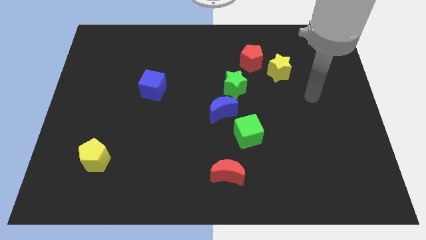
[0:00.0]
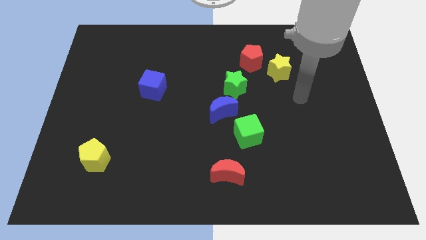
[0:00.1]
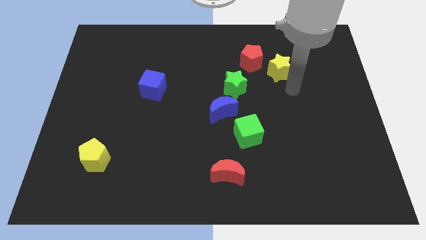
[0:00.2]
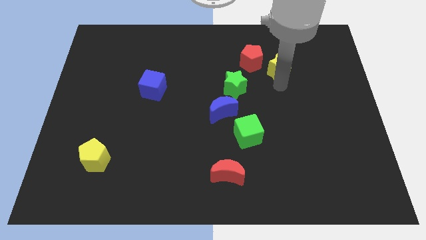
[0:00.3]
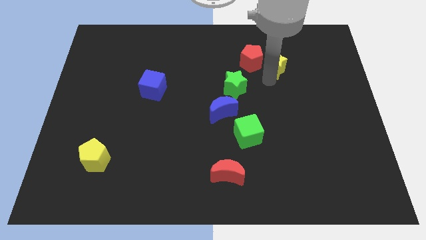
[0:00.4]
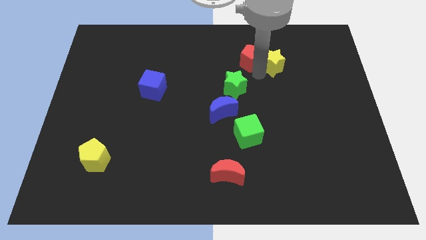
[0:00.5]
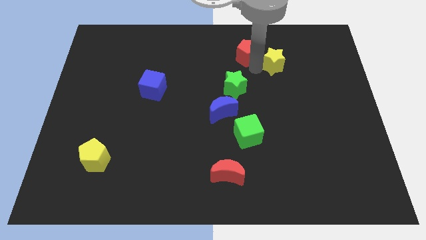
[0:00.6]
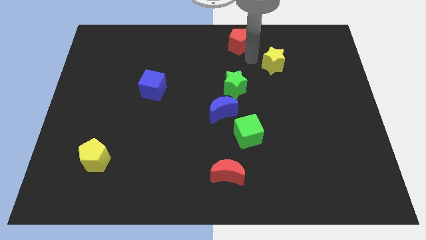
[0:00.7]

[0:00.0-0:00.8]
move the yellow star away from the red pentagon

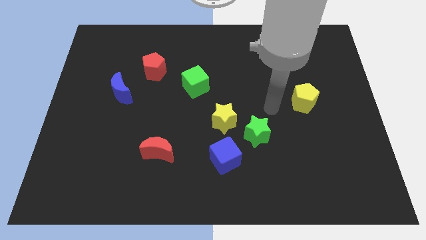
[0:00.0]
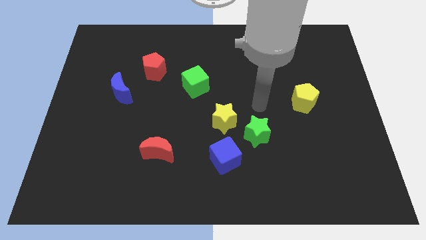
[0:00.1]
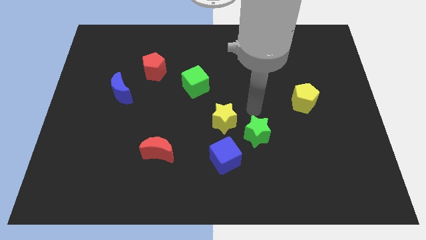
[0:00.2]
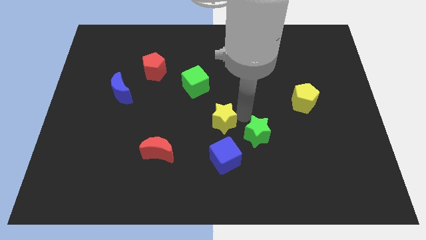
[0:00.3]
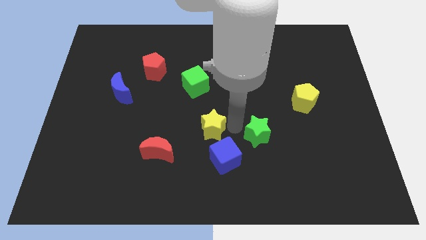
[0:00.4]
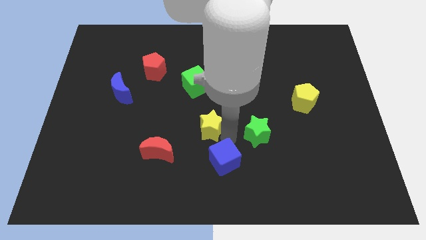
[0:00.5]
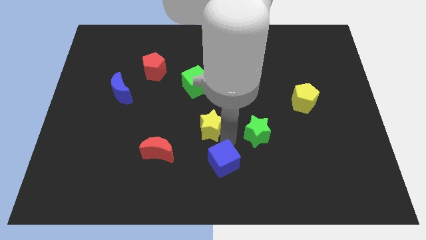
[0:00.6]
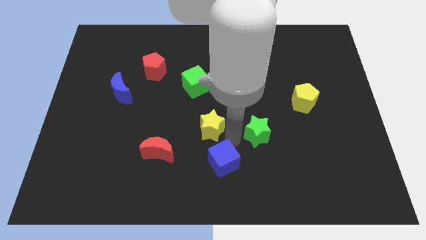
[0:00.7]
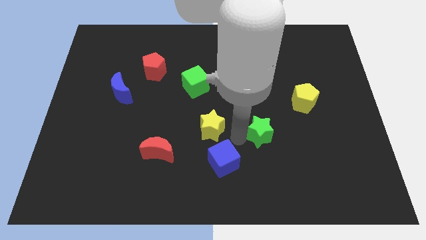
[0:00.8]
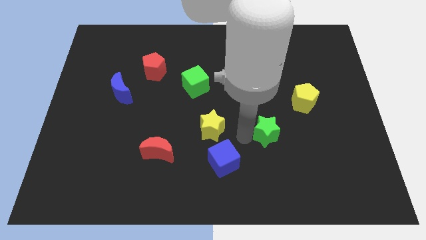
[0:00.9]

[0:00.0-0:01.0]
separate the green star from the yellow star and blue cube

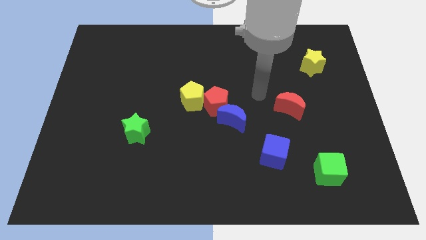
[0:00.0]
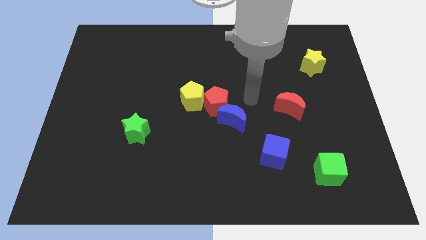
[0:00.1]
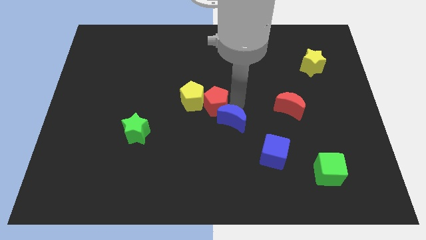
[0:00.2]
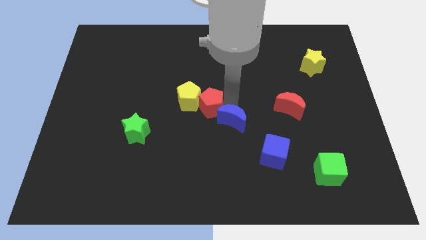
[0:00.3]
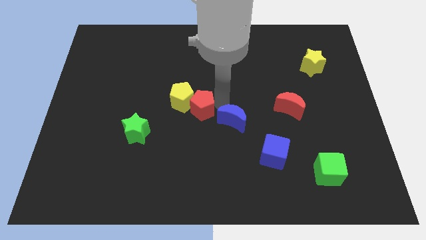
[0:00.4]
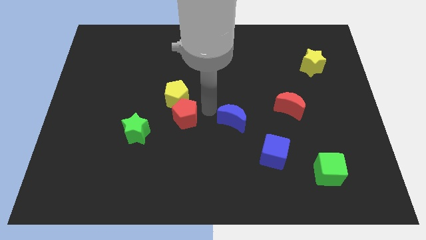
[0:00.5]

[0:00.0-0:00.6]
separate the blue moon from the red pentagon

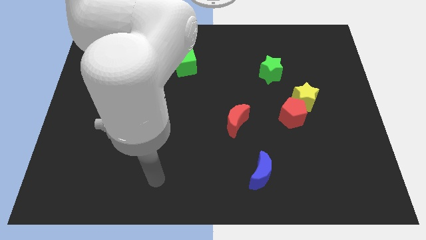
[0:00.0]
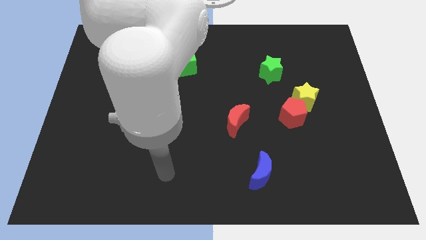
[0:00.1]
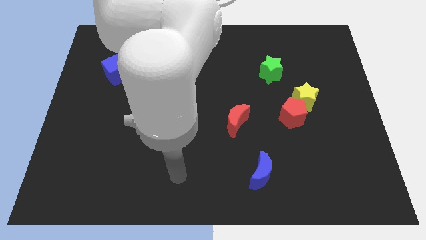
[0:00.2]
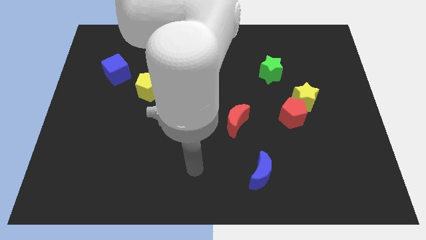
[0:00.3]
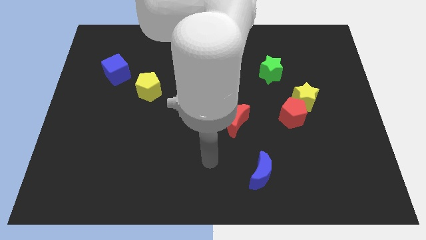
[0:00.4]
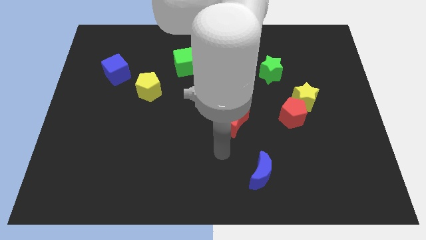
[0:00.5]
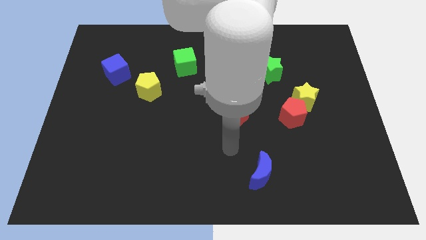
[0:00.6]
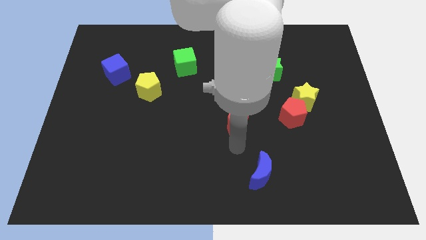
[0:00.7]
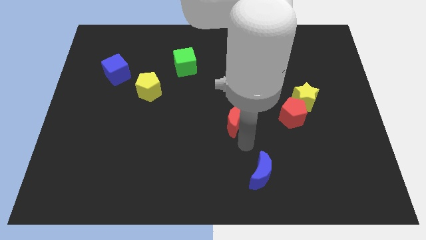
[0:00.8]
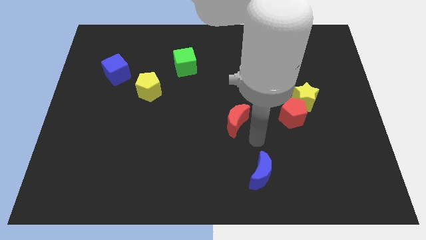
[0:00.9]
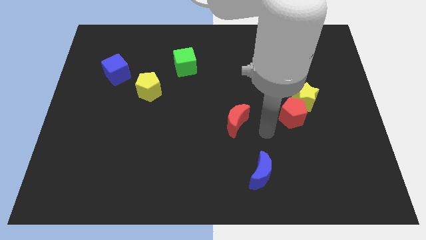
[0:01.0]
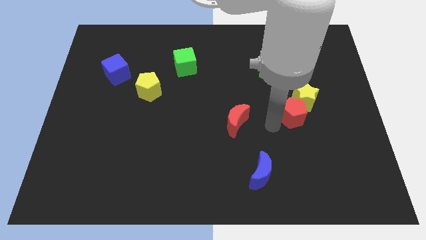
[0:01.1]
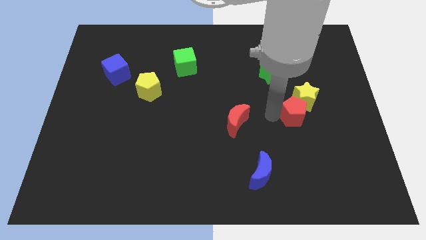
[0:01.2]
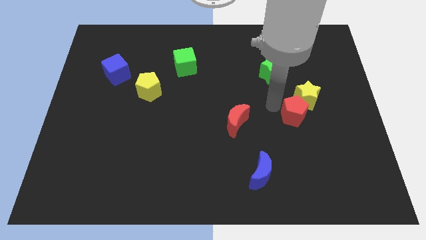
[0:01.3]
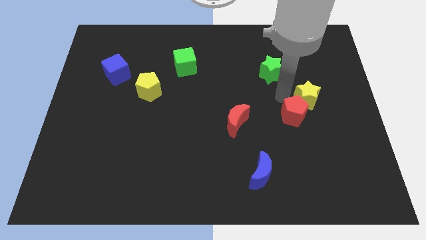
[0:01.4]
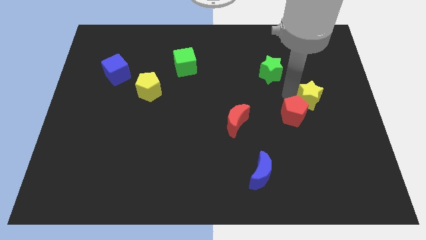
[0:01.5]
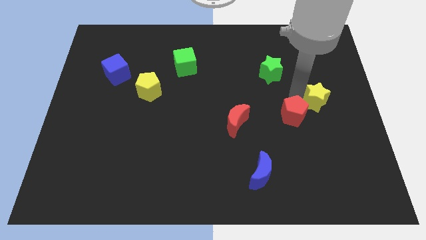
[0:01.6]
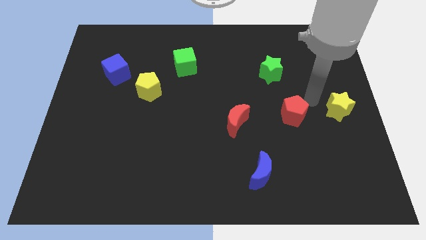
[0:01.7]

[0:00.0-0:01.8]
pull the red pentagon apart from the yellow star

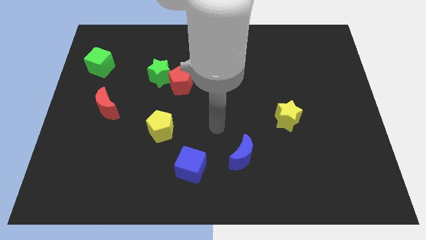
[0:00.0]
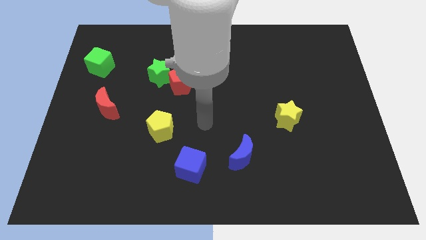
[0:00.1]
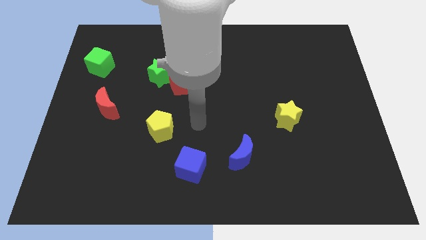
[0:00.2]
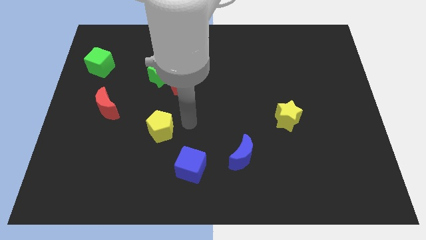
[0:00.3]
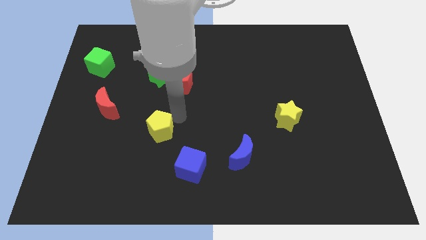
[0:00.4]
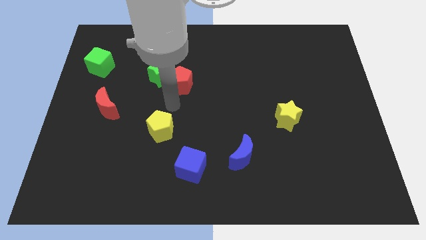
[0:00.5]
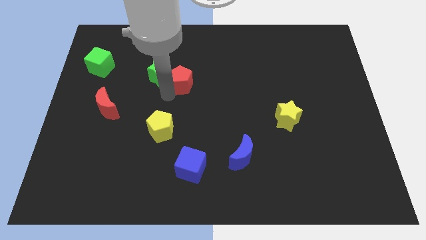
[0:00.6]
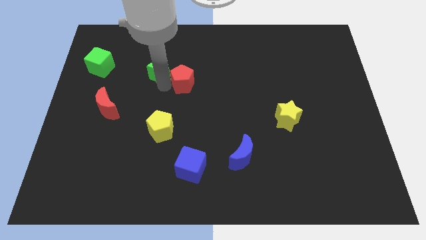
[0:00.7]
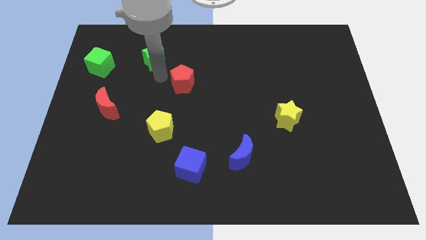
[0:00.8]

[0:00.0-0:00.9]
move the red pentagon away from the green star

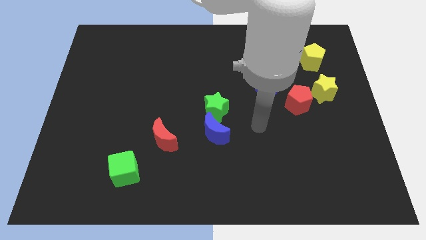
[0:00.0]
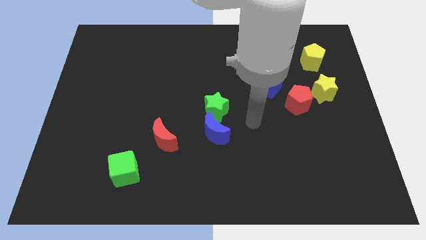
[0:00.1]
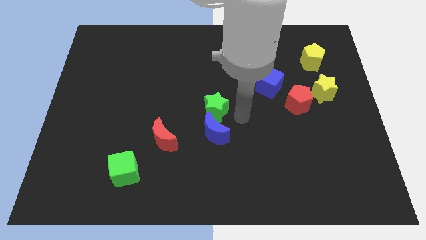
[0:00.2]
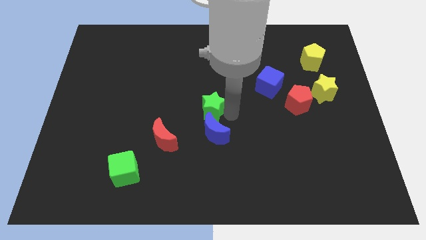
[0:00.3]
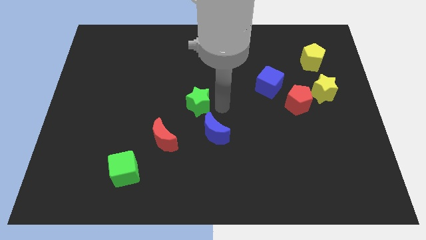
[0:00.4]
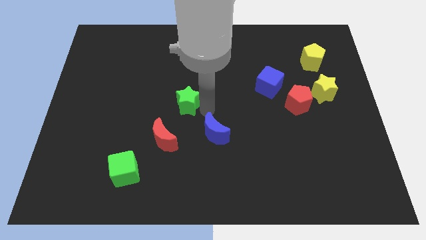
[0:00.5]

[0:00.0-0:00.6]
separate the blue moon from the green star

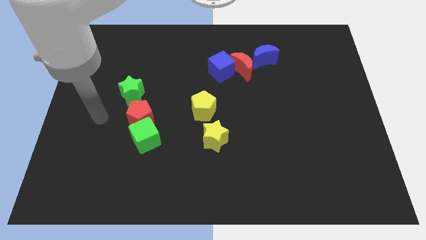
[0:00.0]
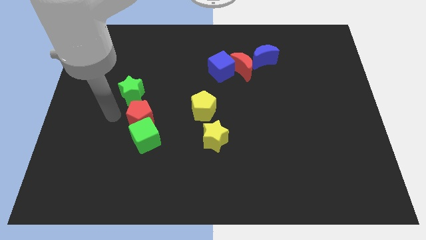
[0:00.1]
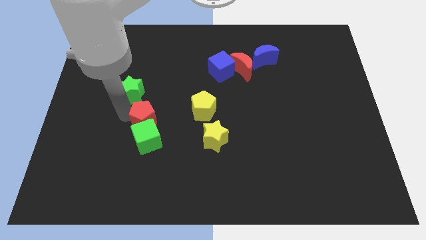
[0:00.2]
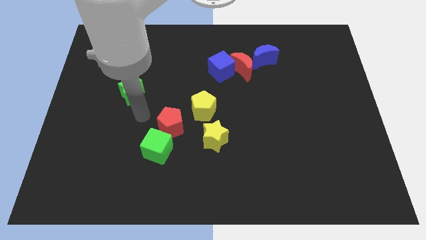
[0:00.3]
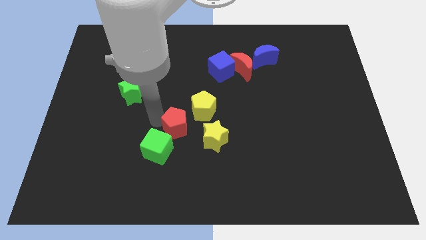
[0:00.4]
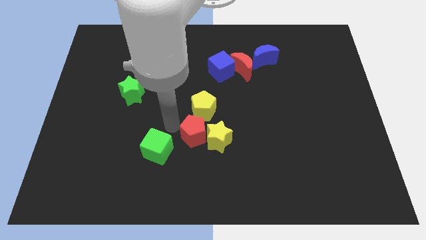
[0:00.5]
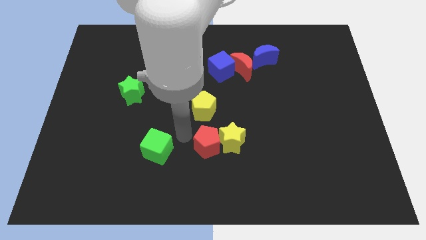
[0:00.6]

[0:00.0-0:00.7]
separate the green cube from the red pentagon

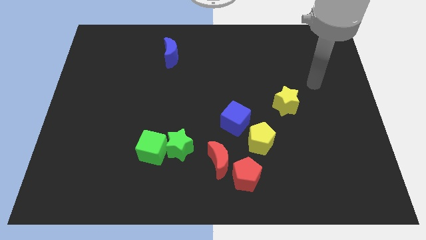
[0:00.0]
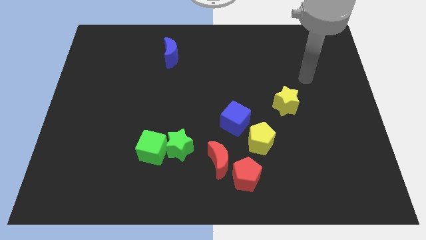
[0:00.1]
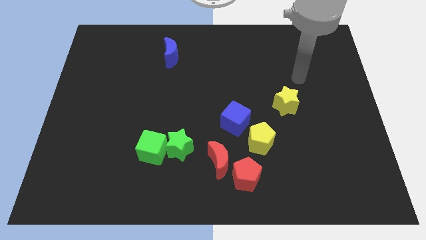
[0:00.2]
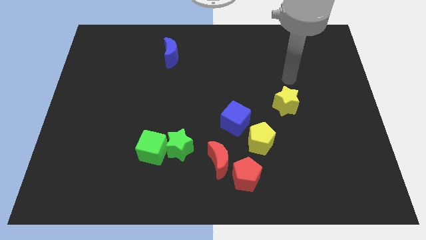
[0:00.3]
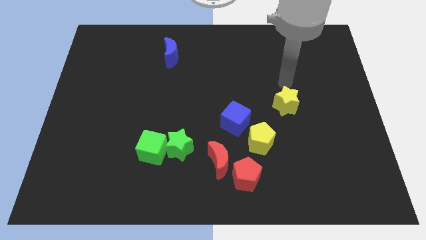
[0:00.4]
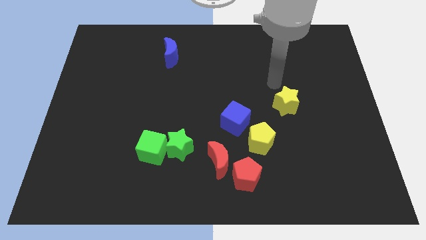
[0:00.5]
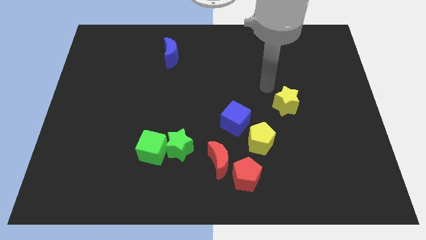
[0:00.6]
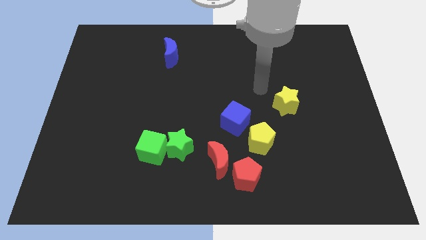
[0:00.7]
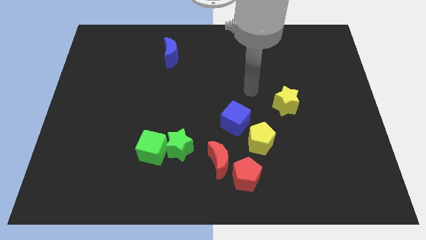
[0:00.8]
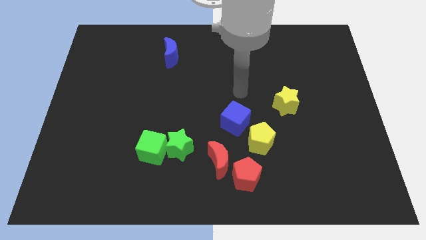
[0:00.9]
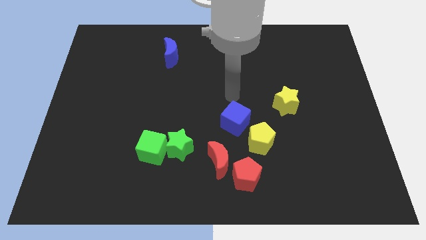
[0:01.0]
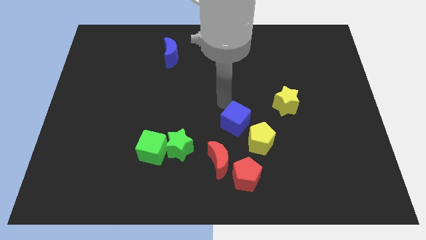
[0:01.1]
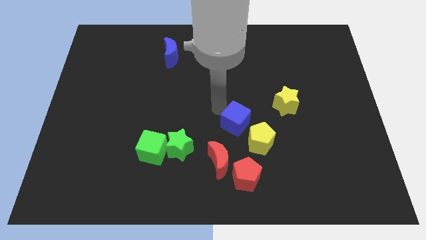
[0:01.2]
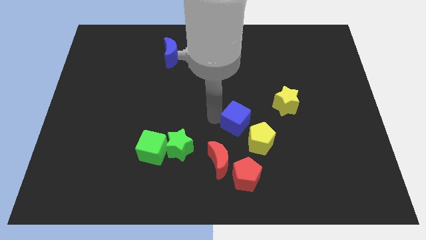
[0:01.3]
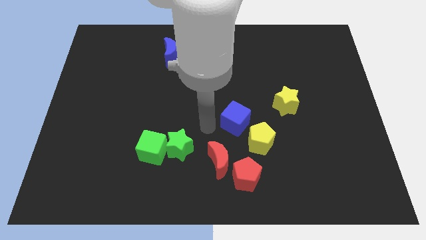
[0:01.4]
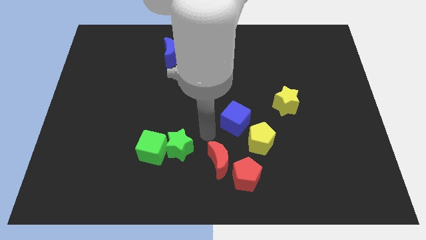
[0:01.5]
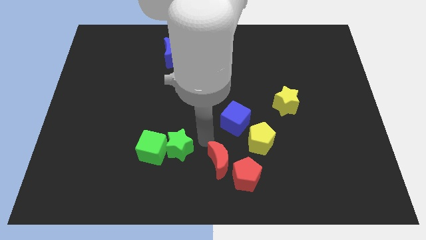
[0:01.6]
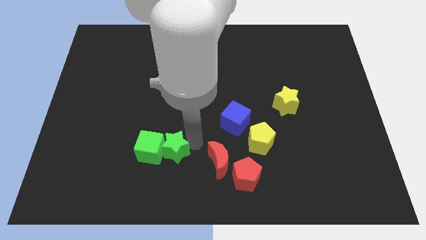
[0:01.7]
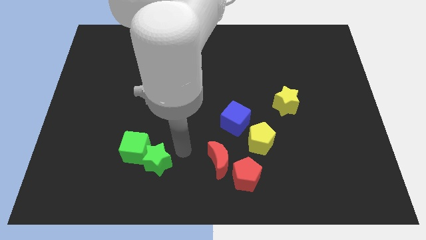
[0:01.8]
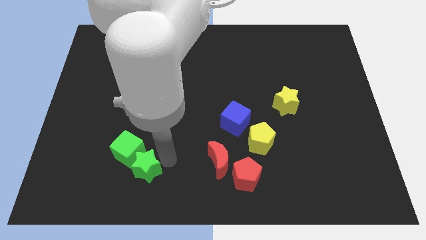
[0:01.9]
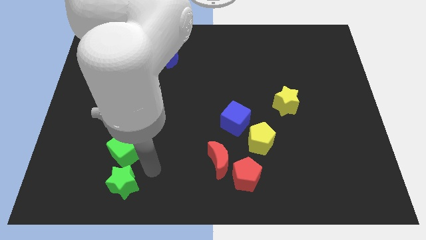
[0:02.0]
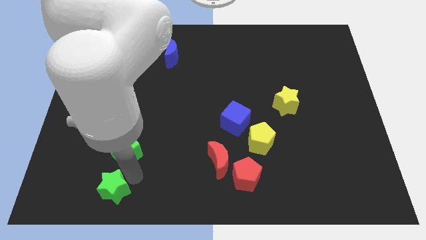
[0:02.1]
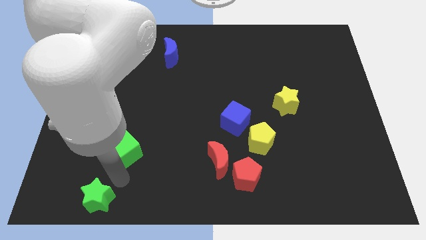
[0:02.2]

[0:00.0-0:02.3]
pull the green cube apart from the green star

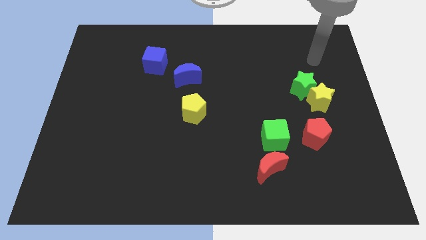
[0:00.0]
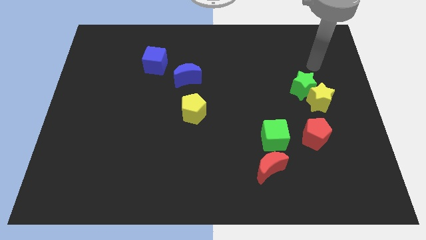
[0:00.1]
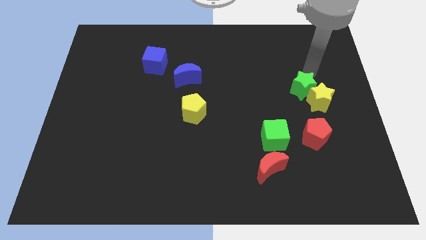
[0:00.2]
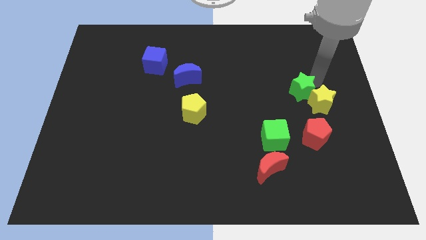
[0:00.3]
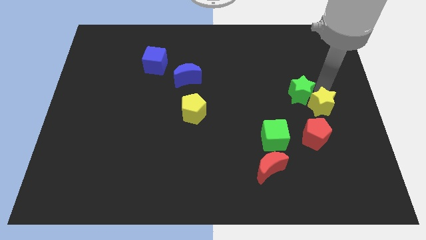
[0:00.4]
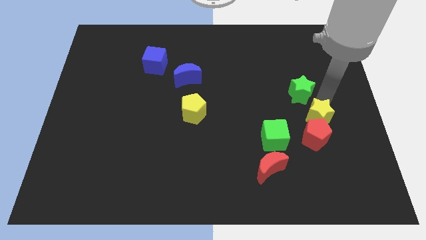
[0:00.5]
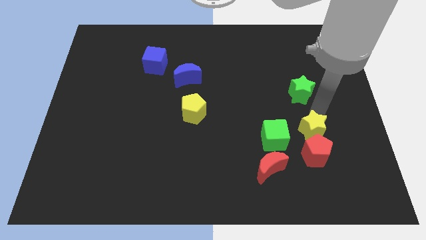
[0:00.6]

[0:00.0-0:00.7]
pull the green star apart from the yellow star
